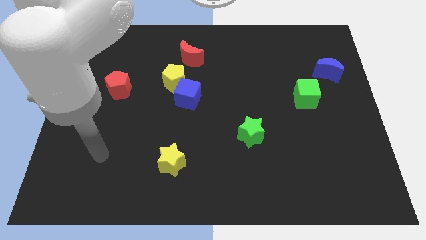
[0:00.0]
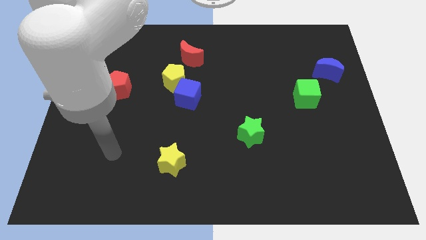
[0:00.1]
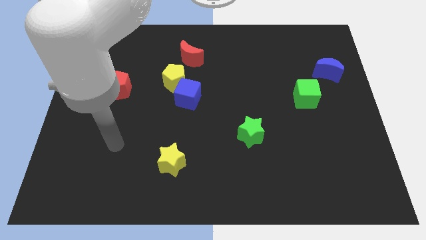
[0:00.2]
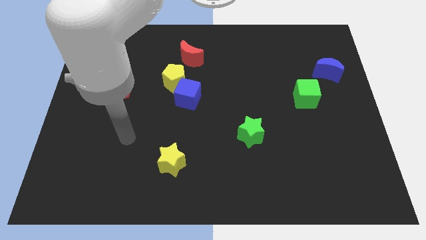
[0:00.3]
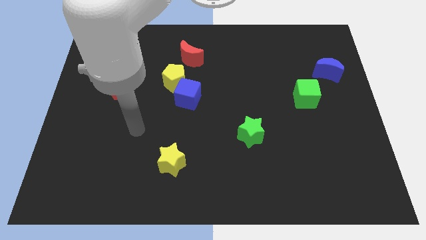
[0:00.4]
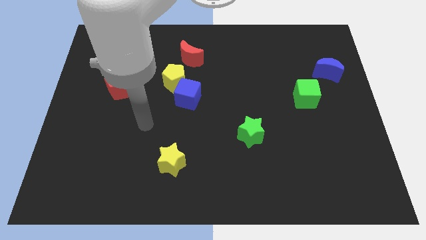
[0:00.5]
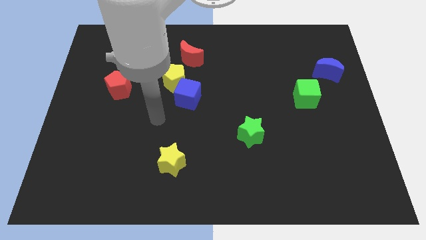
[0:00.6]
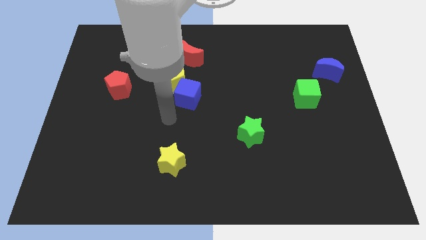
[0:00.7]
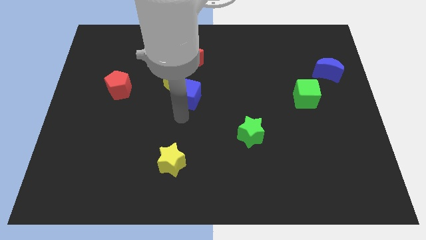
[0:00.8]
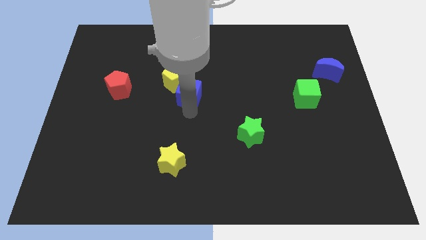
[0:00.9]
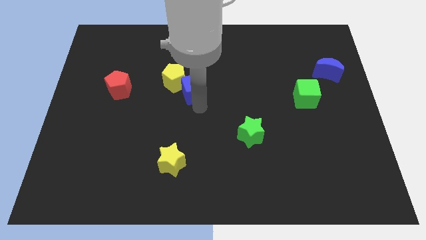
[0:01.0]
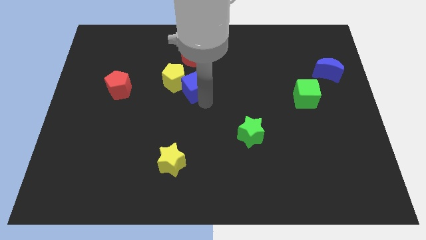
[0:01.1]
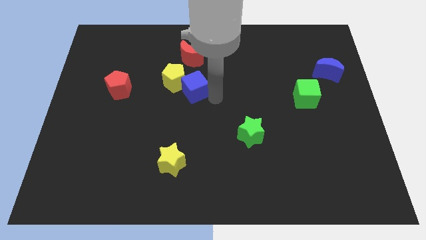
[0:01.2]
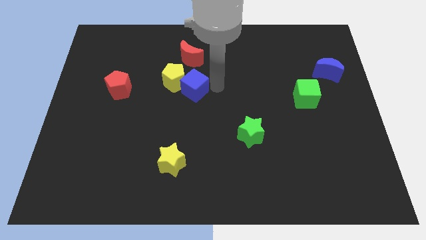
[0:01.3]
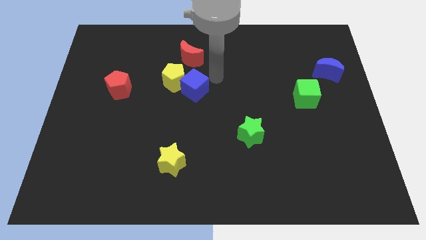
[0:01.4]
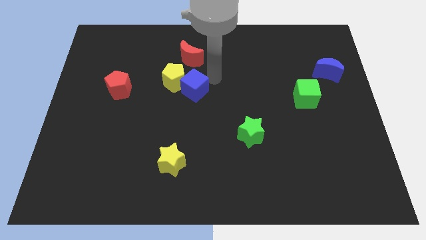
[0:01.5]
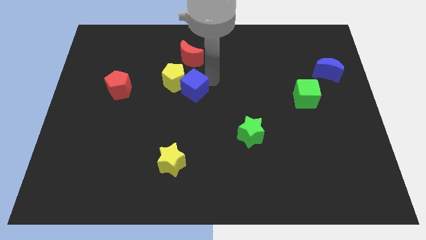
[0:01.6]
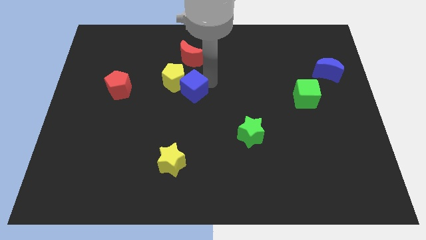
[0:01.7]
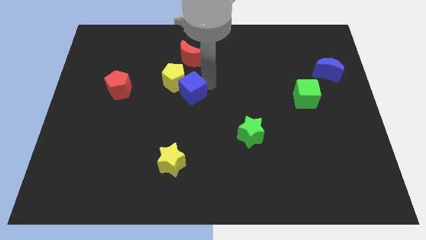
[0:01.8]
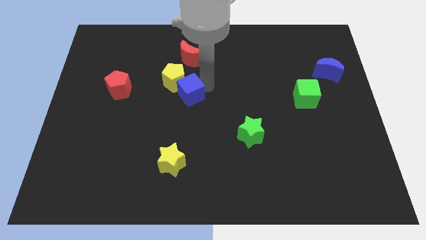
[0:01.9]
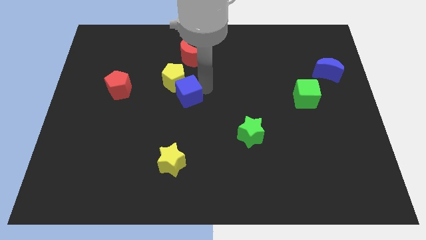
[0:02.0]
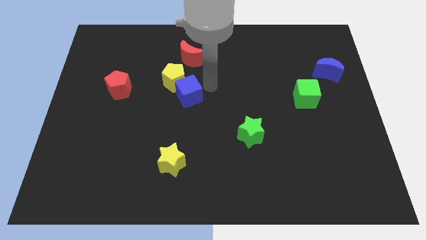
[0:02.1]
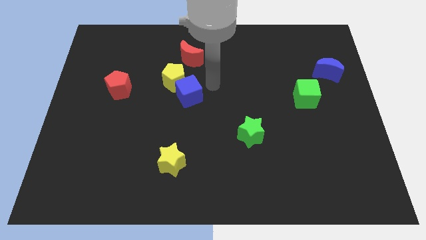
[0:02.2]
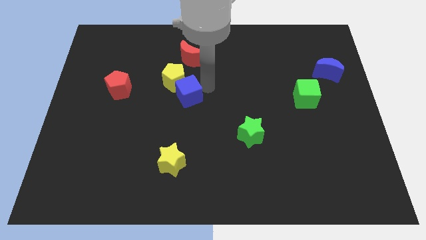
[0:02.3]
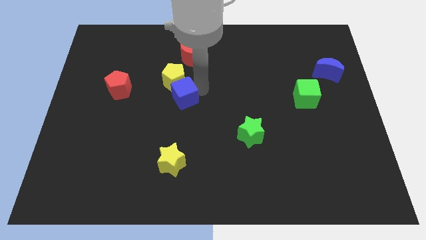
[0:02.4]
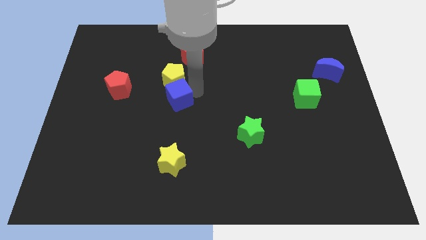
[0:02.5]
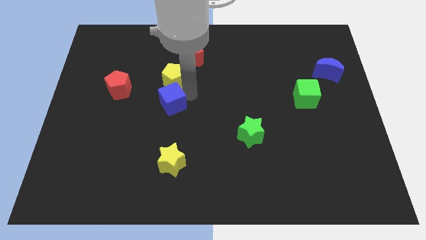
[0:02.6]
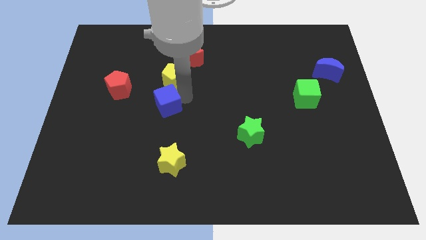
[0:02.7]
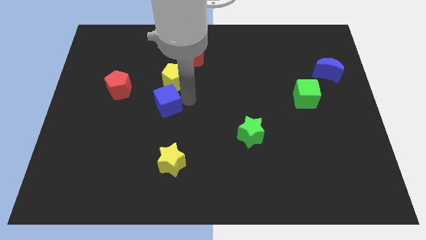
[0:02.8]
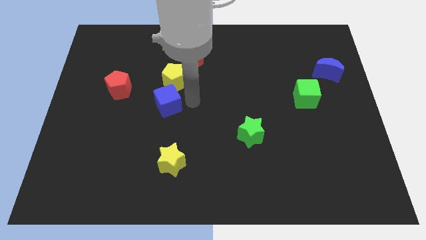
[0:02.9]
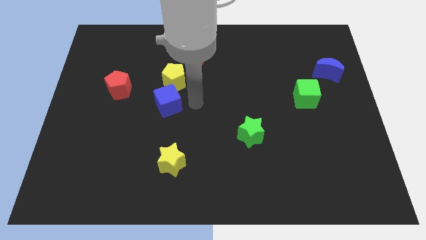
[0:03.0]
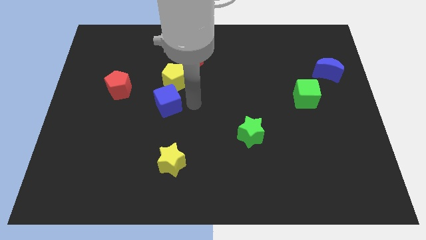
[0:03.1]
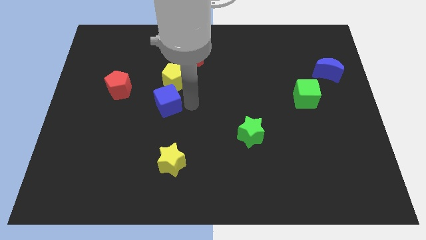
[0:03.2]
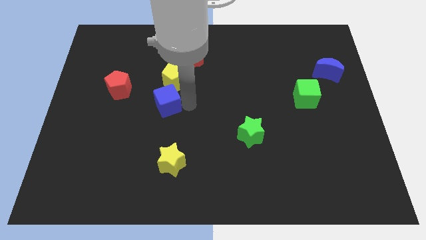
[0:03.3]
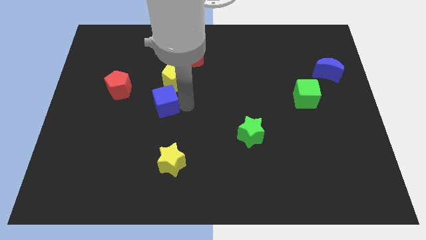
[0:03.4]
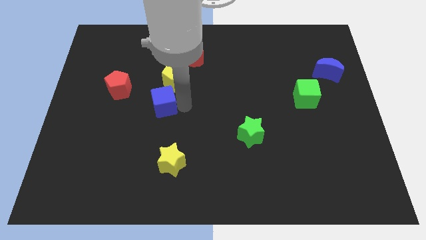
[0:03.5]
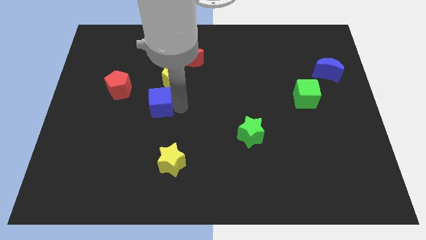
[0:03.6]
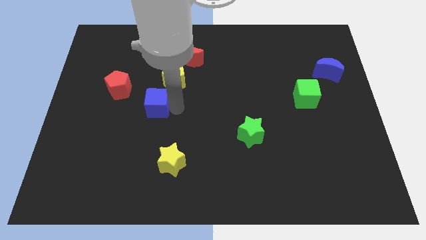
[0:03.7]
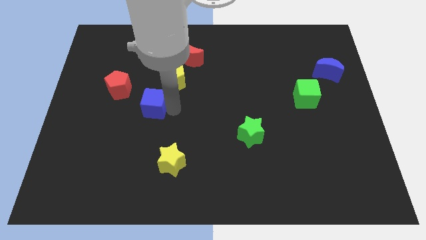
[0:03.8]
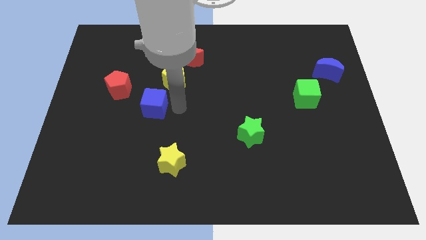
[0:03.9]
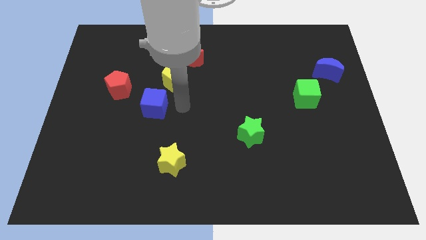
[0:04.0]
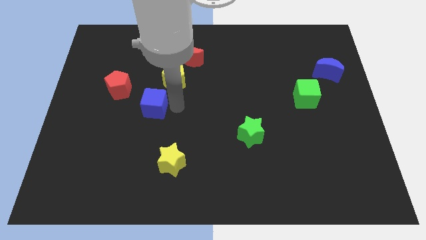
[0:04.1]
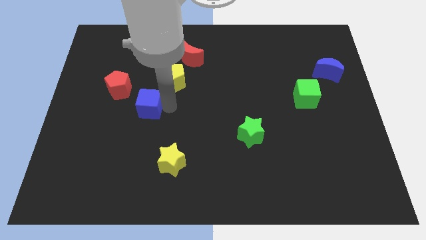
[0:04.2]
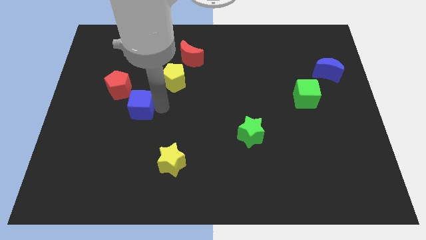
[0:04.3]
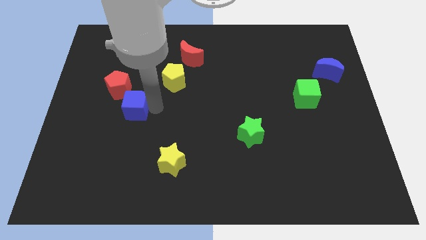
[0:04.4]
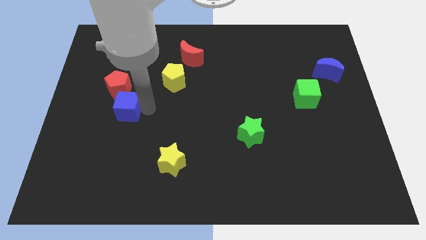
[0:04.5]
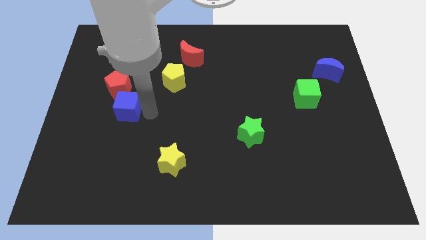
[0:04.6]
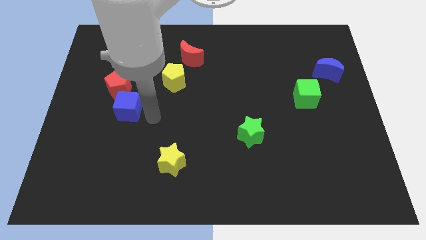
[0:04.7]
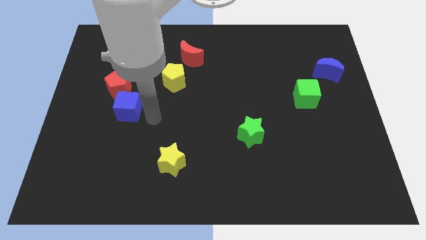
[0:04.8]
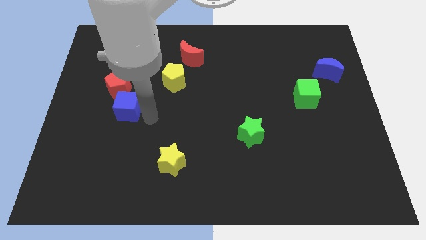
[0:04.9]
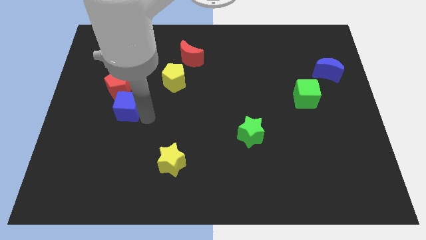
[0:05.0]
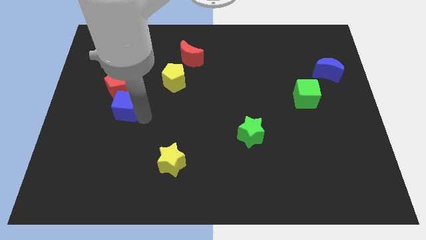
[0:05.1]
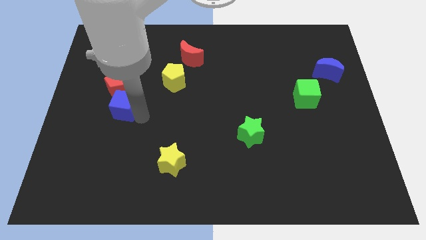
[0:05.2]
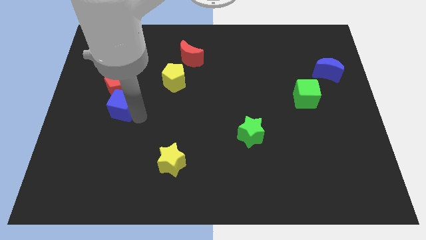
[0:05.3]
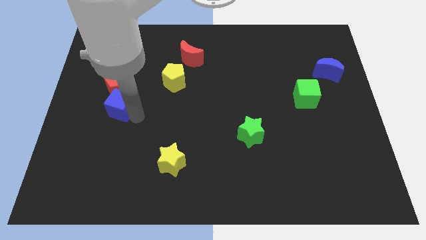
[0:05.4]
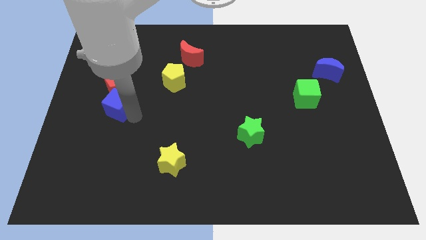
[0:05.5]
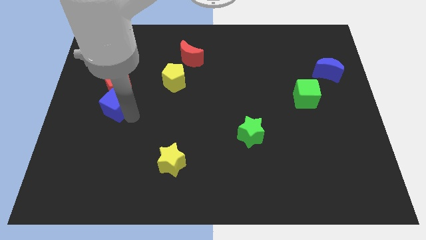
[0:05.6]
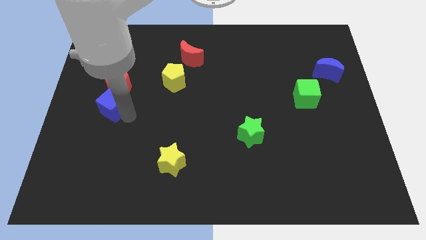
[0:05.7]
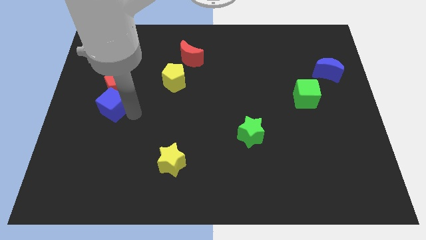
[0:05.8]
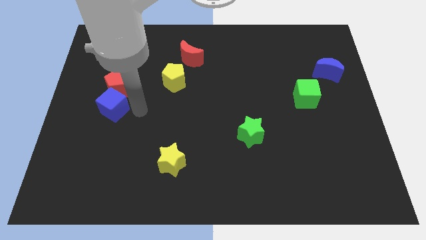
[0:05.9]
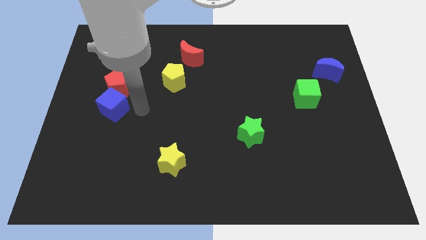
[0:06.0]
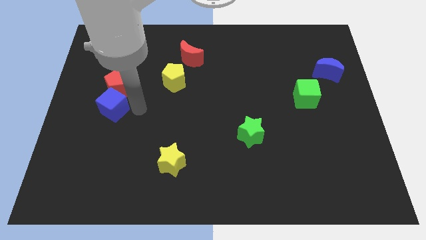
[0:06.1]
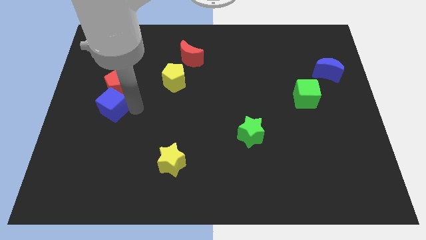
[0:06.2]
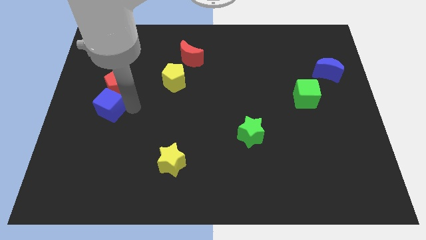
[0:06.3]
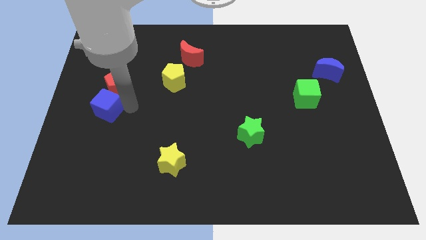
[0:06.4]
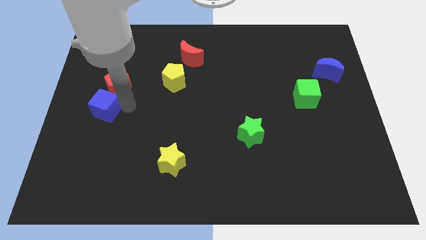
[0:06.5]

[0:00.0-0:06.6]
push the blue cube to the left side

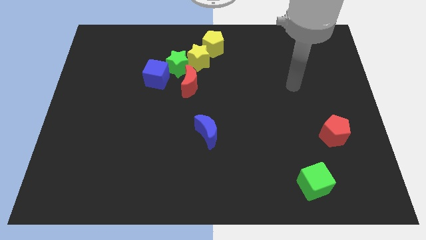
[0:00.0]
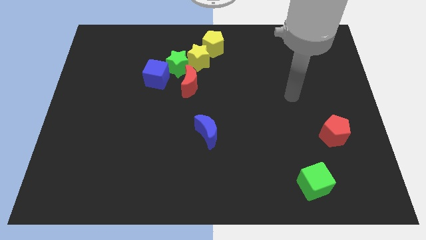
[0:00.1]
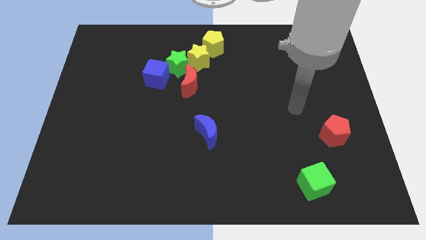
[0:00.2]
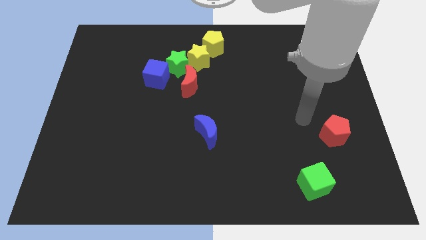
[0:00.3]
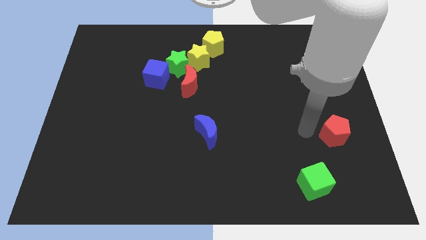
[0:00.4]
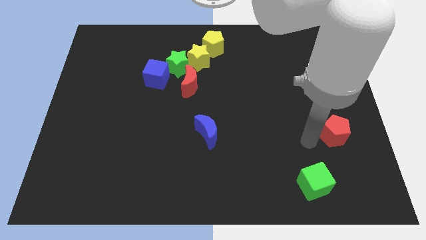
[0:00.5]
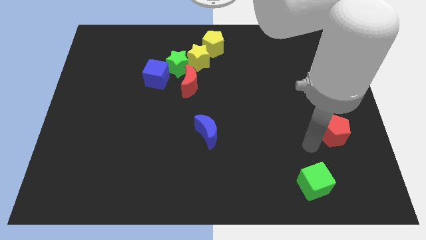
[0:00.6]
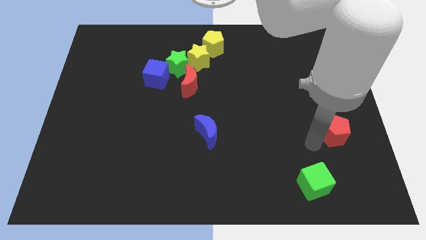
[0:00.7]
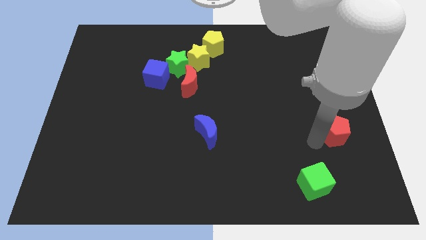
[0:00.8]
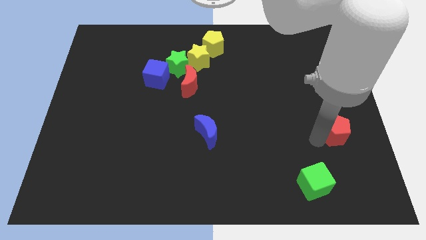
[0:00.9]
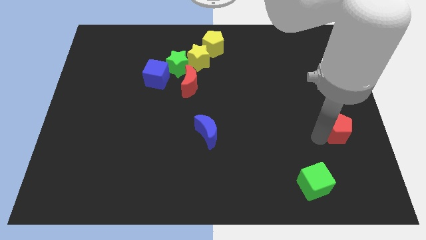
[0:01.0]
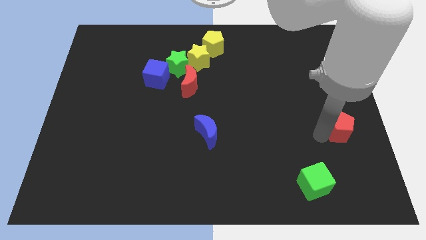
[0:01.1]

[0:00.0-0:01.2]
slide the red pentagon to the right side of the board
